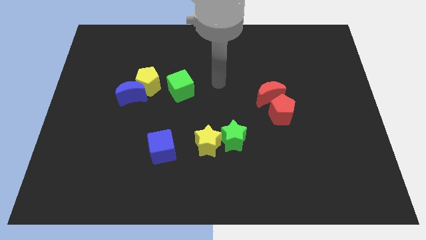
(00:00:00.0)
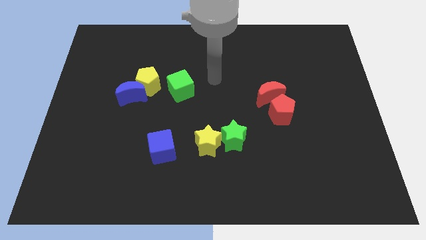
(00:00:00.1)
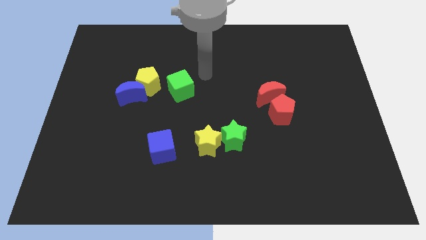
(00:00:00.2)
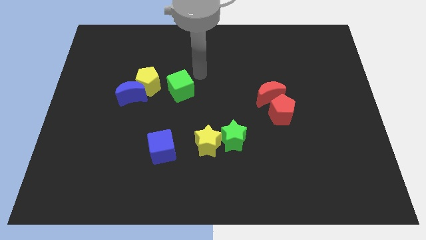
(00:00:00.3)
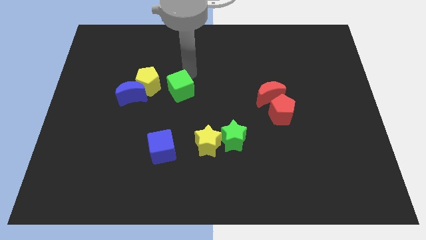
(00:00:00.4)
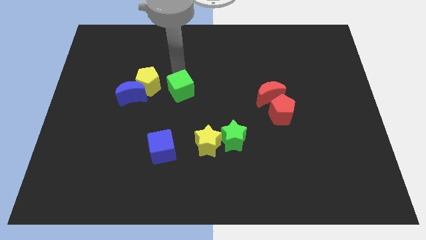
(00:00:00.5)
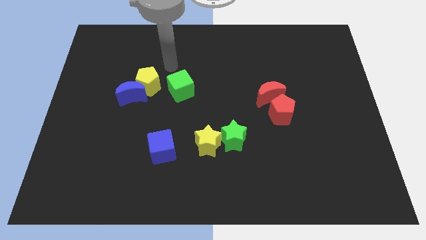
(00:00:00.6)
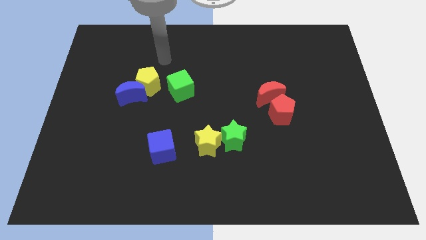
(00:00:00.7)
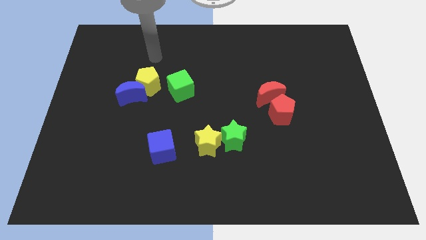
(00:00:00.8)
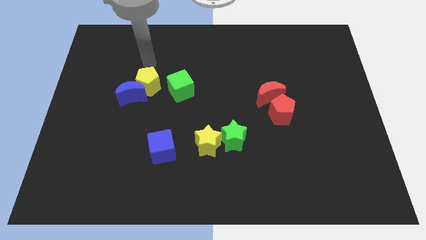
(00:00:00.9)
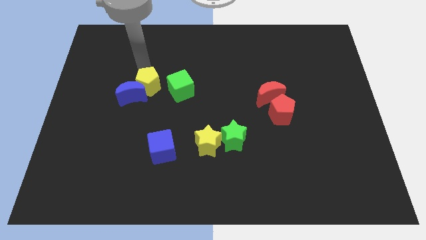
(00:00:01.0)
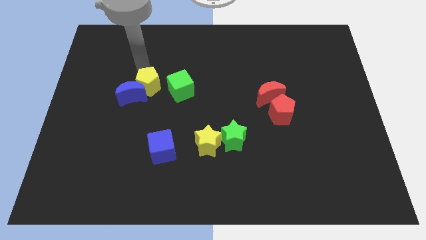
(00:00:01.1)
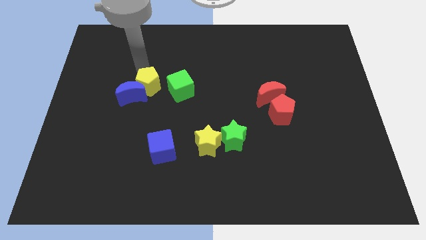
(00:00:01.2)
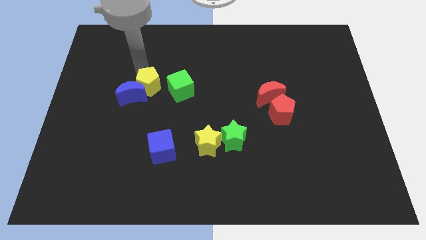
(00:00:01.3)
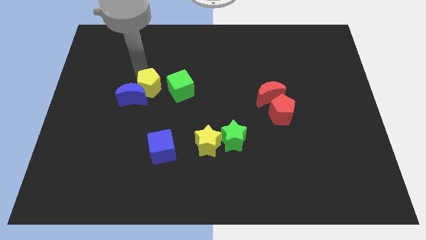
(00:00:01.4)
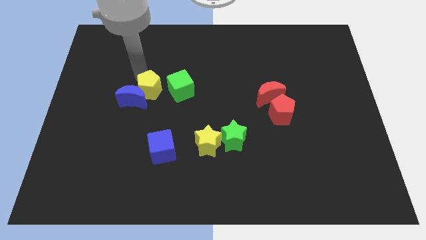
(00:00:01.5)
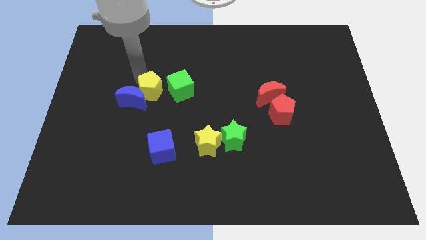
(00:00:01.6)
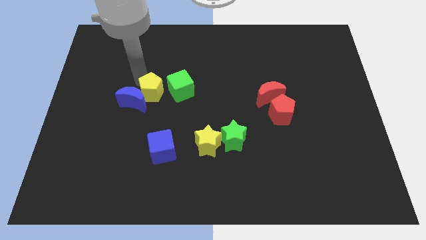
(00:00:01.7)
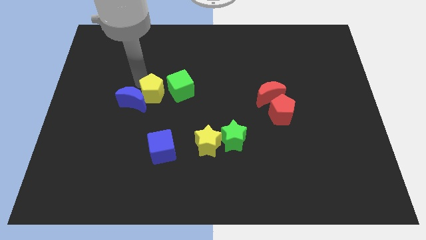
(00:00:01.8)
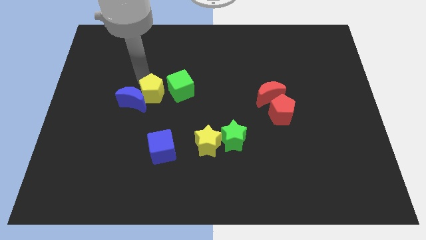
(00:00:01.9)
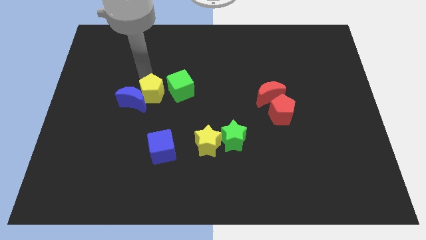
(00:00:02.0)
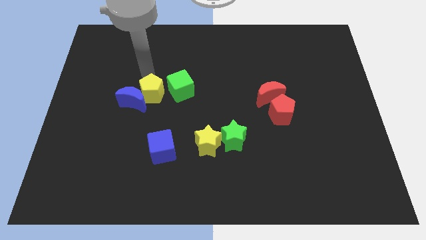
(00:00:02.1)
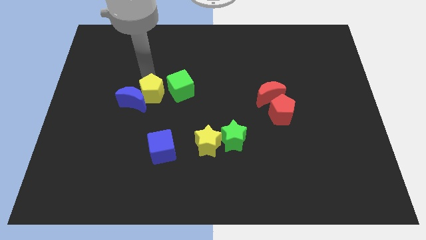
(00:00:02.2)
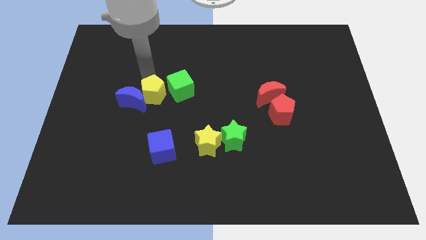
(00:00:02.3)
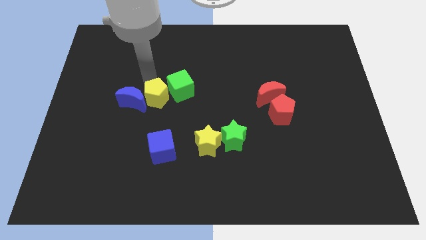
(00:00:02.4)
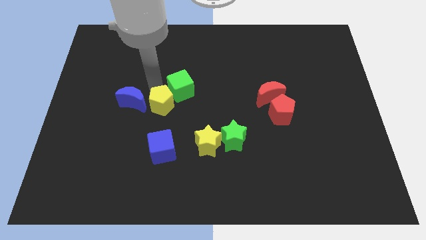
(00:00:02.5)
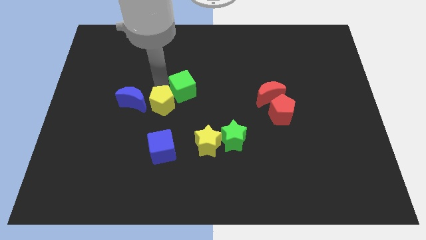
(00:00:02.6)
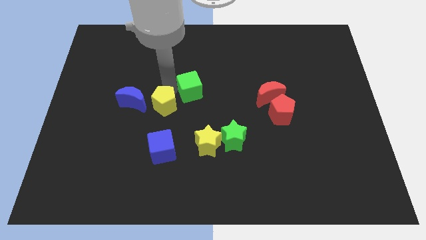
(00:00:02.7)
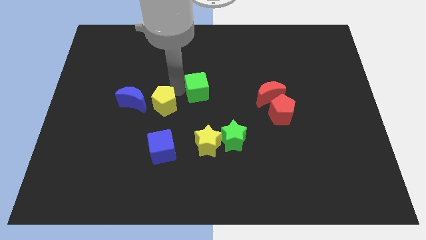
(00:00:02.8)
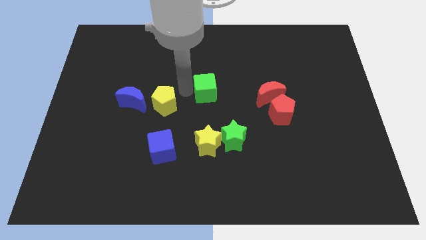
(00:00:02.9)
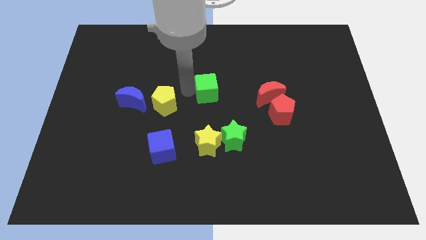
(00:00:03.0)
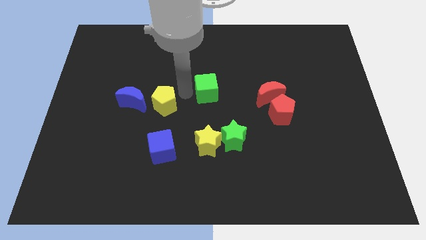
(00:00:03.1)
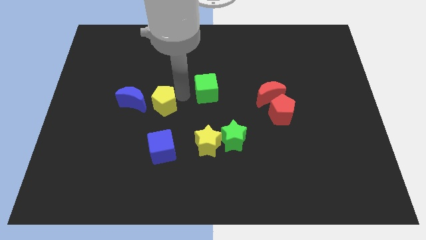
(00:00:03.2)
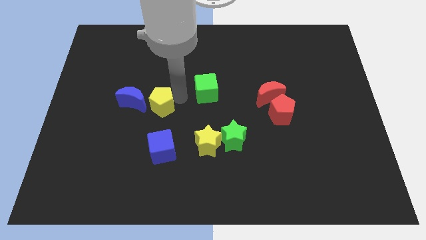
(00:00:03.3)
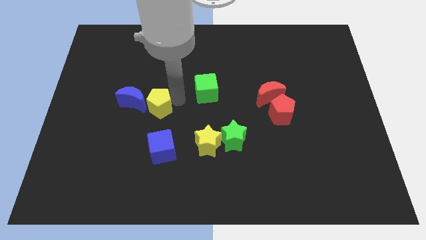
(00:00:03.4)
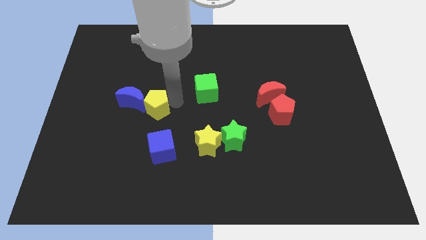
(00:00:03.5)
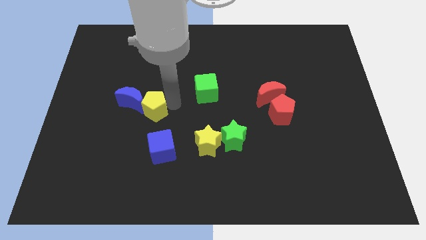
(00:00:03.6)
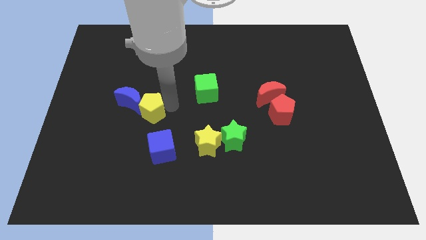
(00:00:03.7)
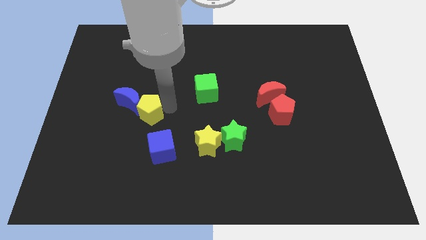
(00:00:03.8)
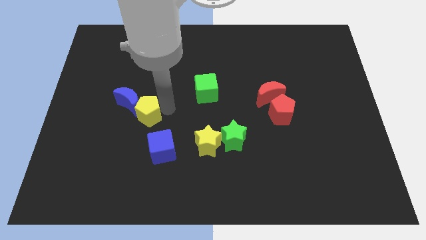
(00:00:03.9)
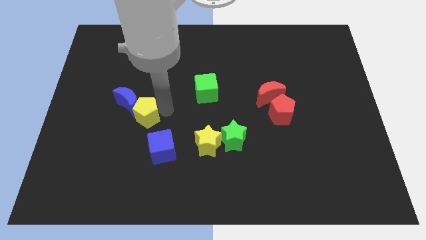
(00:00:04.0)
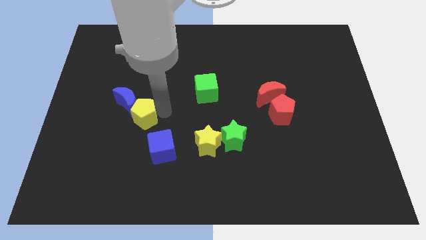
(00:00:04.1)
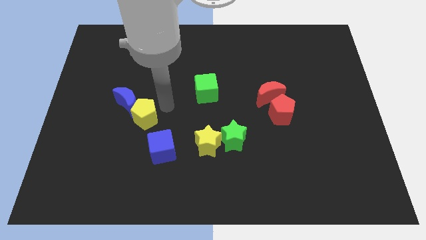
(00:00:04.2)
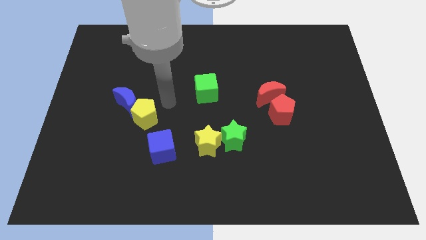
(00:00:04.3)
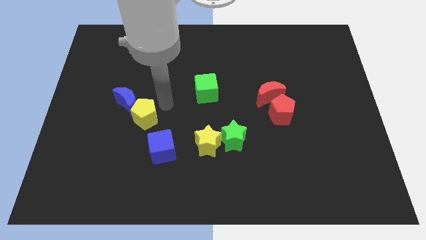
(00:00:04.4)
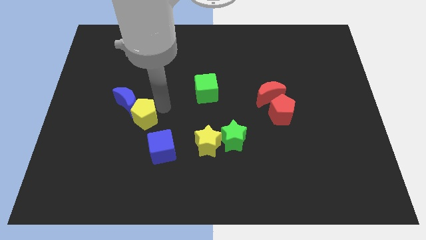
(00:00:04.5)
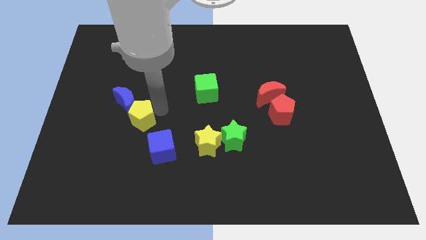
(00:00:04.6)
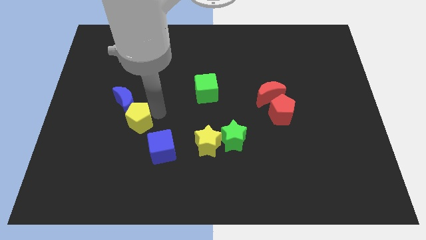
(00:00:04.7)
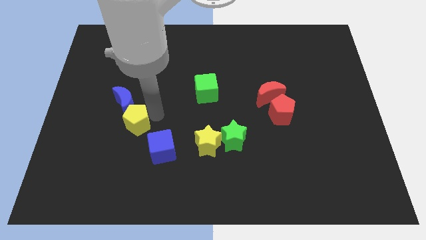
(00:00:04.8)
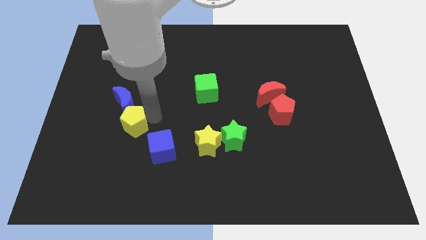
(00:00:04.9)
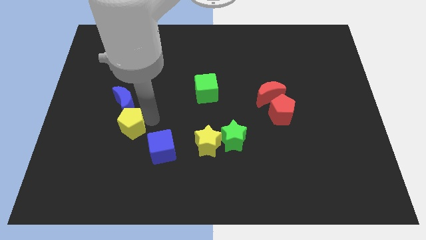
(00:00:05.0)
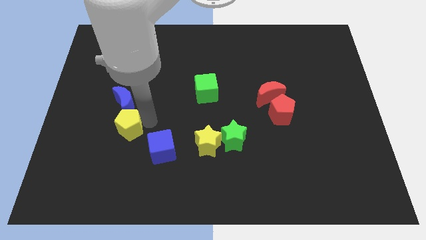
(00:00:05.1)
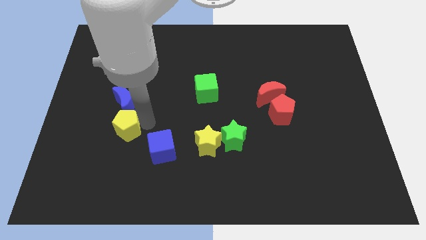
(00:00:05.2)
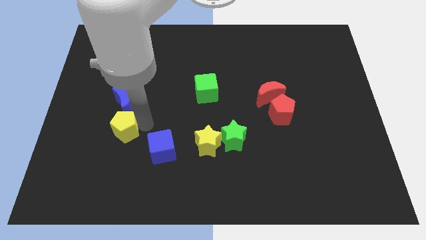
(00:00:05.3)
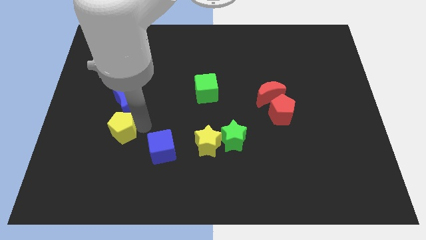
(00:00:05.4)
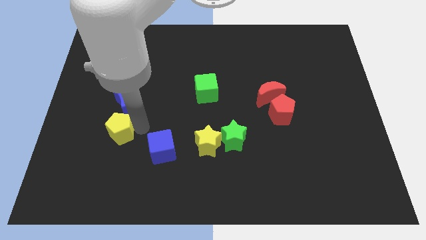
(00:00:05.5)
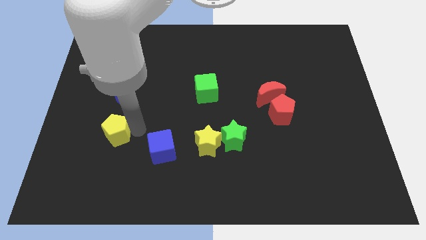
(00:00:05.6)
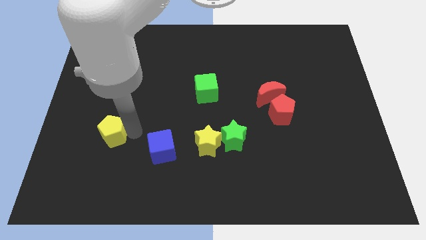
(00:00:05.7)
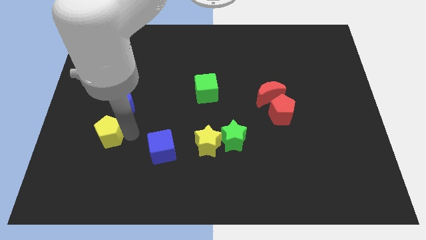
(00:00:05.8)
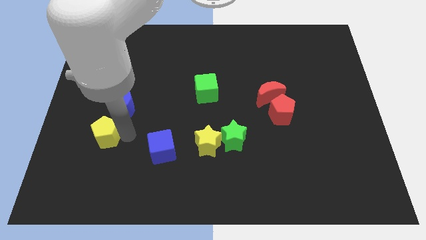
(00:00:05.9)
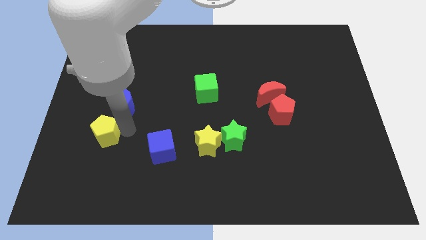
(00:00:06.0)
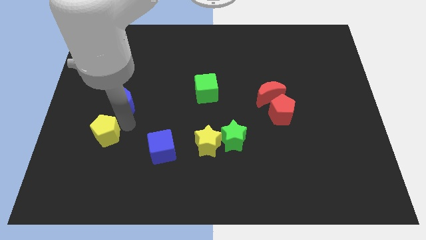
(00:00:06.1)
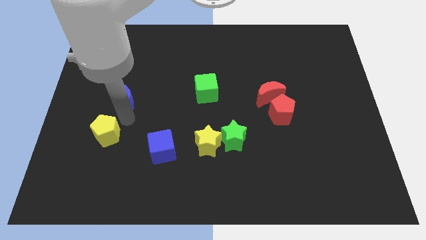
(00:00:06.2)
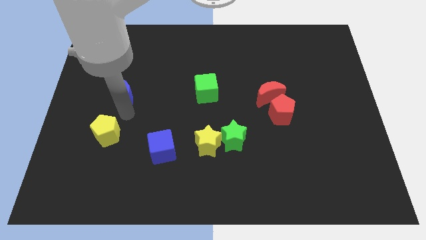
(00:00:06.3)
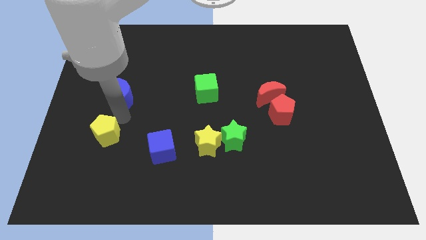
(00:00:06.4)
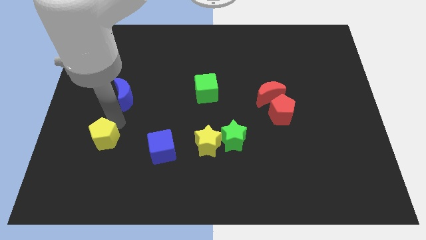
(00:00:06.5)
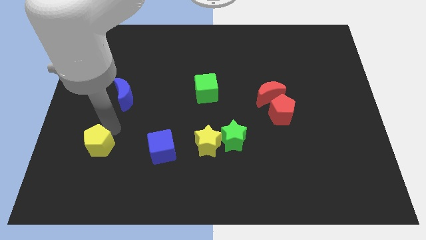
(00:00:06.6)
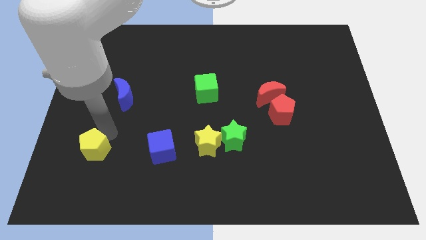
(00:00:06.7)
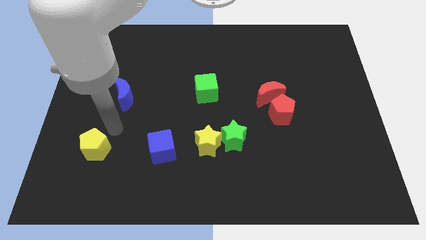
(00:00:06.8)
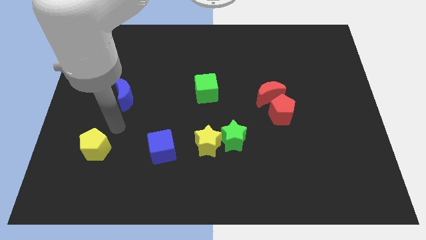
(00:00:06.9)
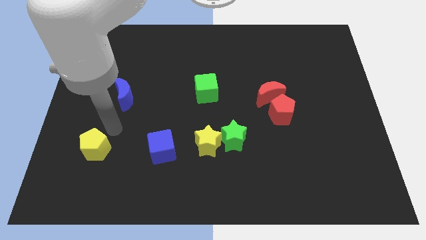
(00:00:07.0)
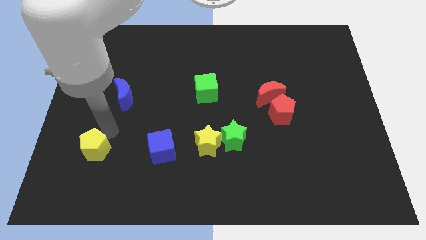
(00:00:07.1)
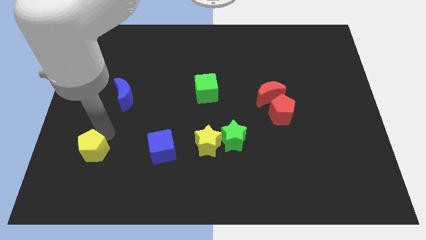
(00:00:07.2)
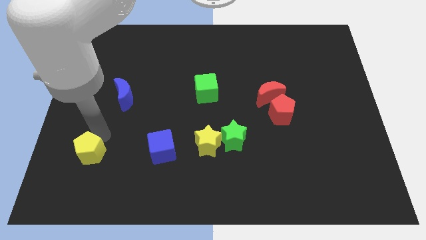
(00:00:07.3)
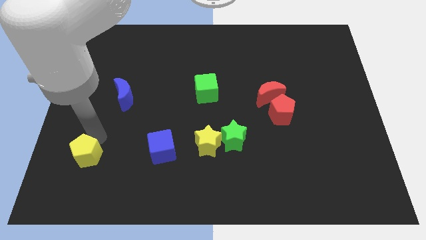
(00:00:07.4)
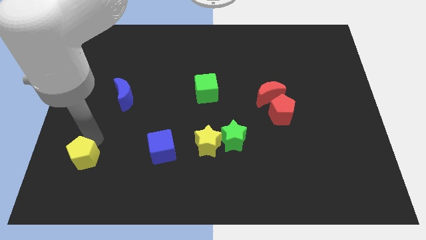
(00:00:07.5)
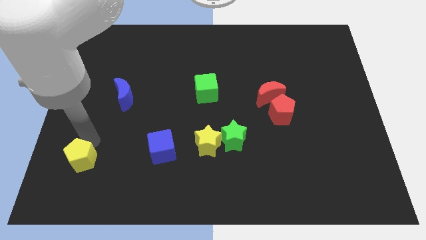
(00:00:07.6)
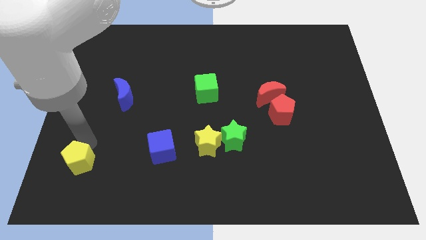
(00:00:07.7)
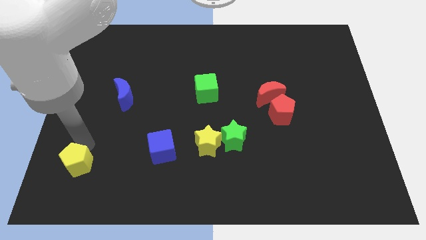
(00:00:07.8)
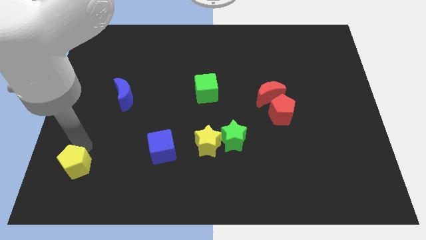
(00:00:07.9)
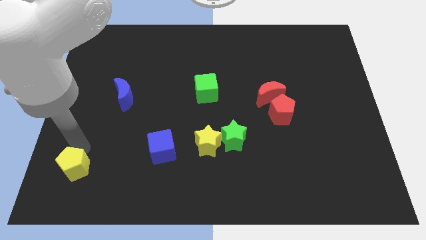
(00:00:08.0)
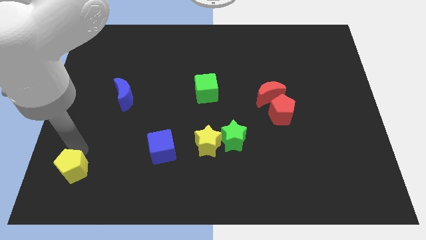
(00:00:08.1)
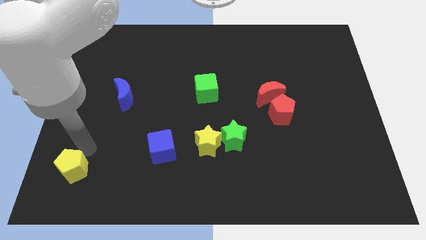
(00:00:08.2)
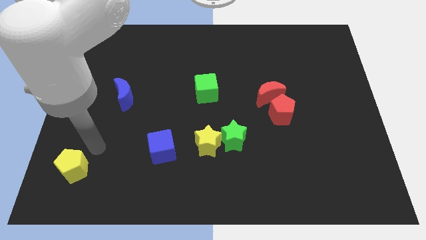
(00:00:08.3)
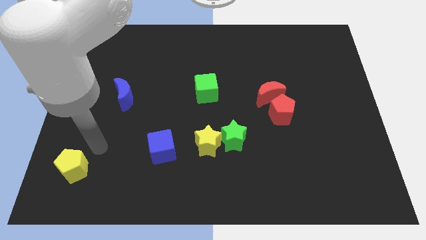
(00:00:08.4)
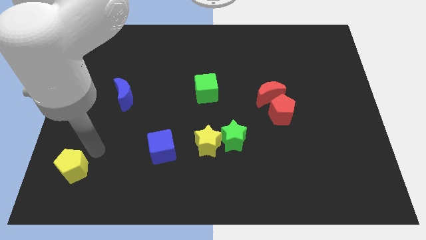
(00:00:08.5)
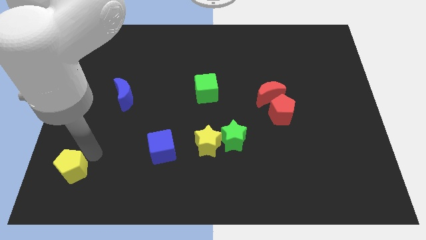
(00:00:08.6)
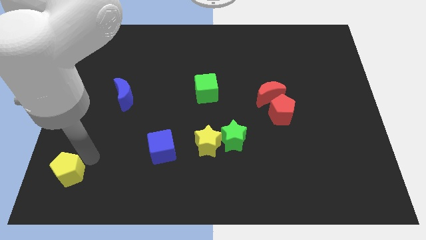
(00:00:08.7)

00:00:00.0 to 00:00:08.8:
slide the yellow pentagon to the bottom left corner
